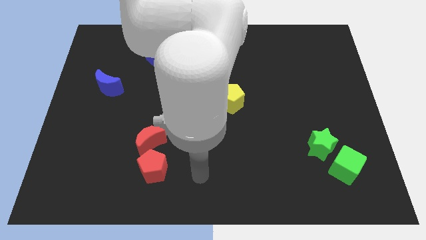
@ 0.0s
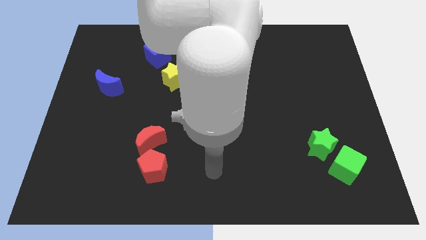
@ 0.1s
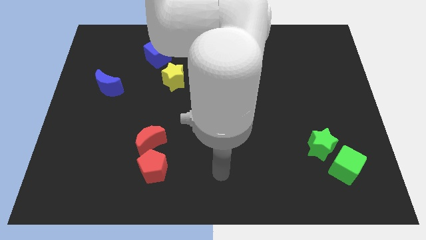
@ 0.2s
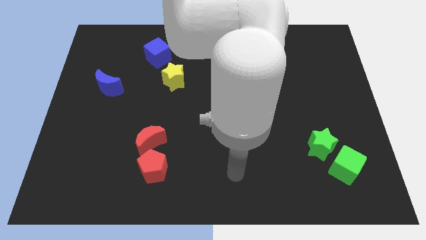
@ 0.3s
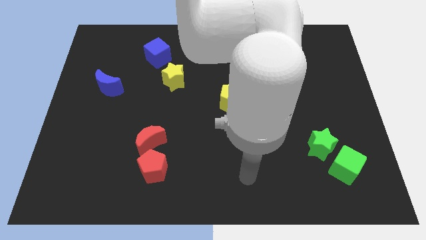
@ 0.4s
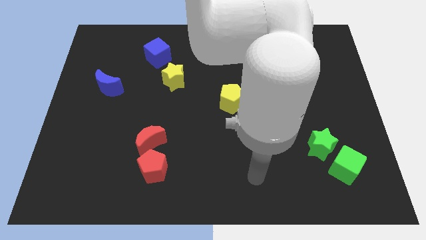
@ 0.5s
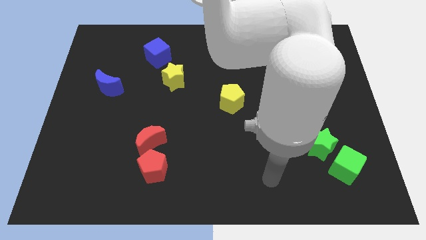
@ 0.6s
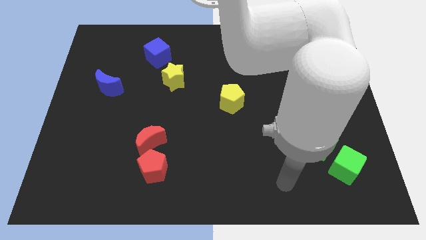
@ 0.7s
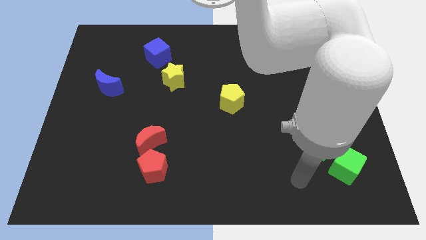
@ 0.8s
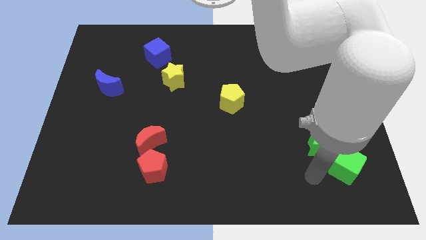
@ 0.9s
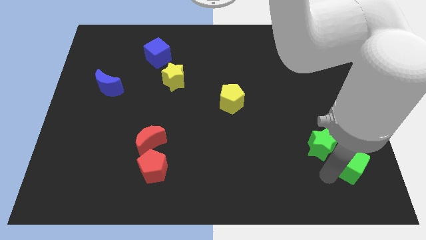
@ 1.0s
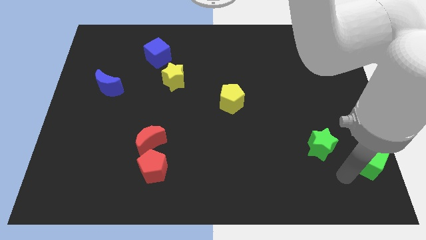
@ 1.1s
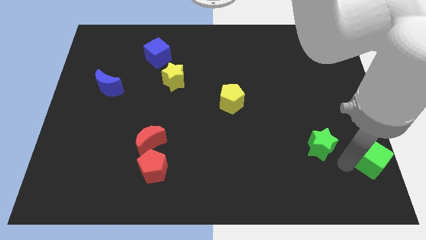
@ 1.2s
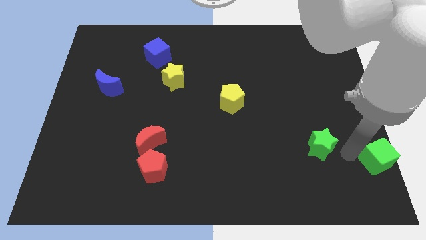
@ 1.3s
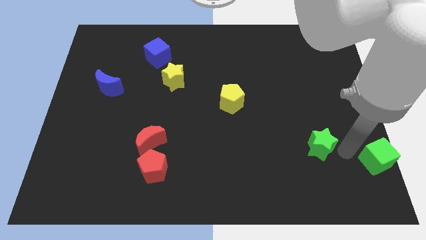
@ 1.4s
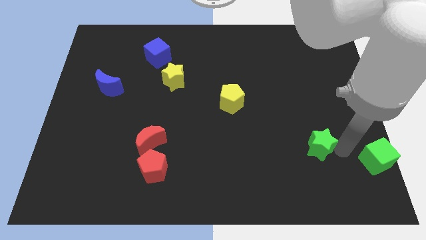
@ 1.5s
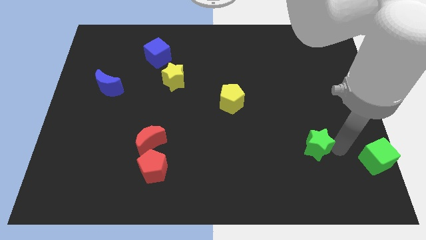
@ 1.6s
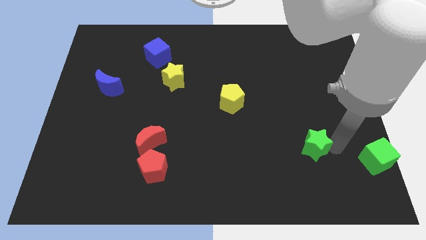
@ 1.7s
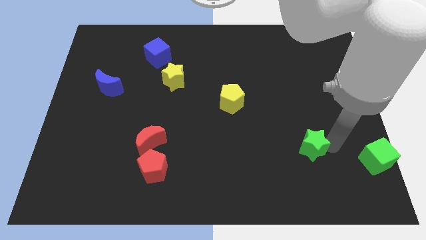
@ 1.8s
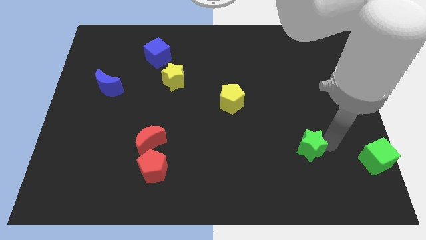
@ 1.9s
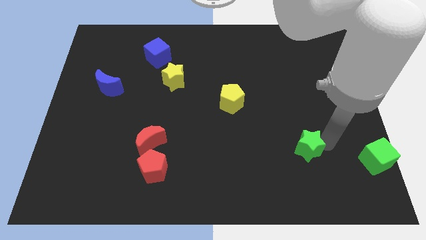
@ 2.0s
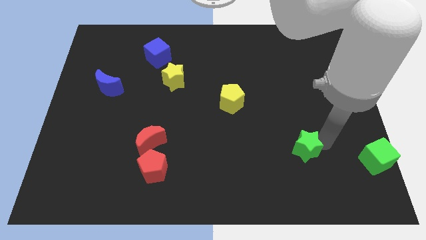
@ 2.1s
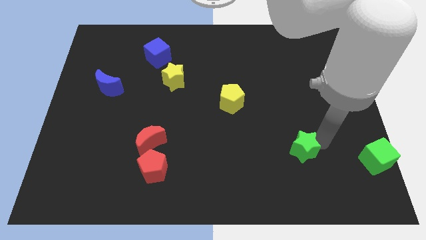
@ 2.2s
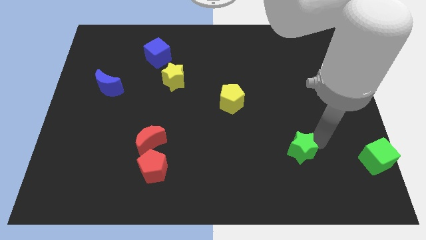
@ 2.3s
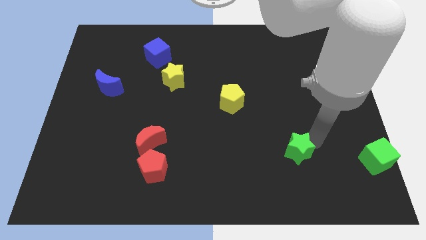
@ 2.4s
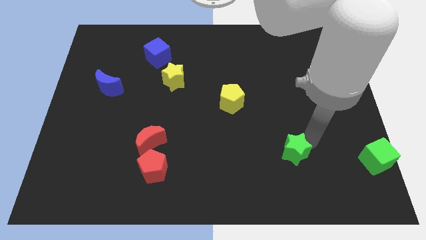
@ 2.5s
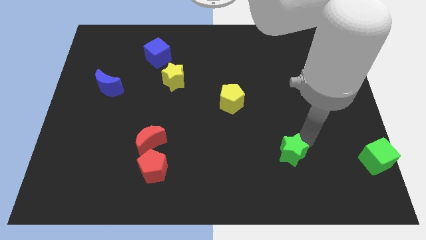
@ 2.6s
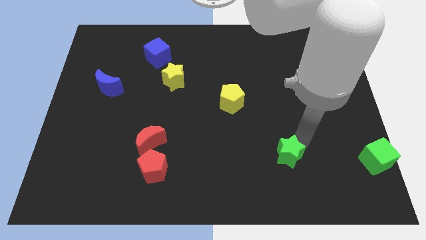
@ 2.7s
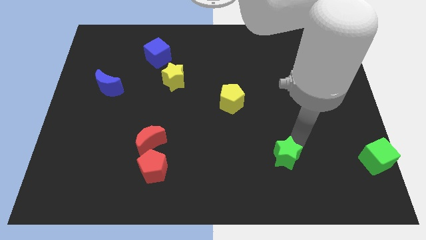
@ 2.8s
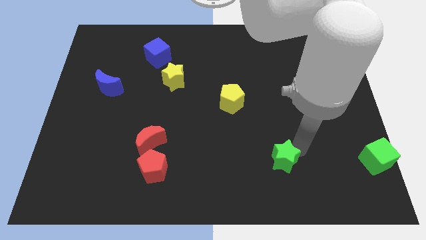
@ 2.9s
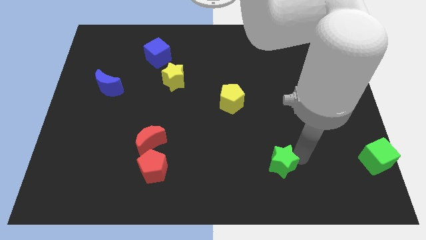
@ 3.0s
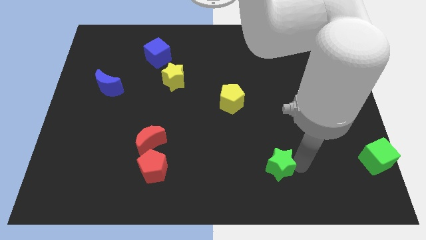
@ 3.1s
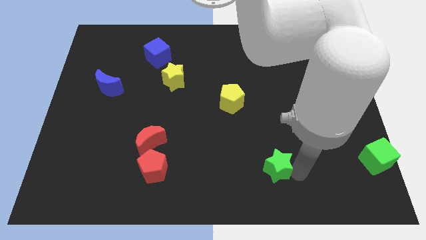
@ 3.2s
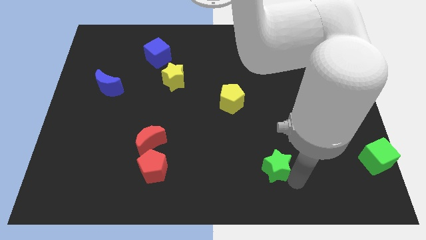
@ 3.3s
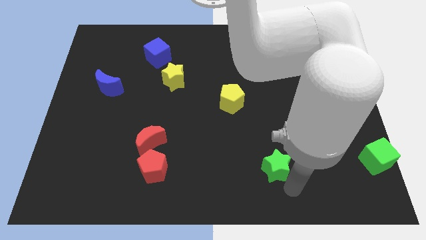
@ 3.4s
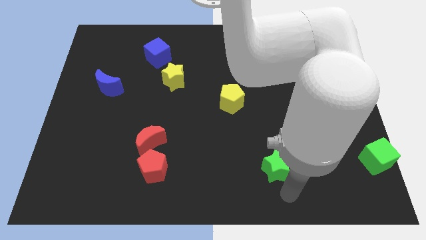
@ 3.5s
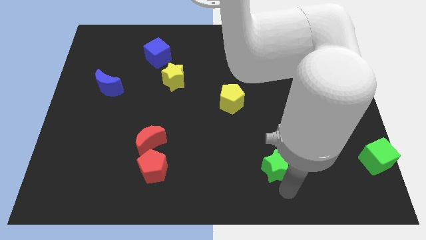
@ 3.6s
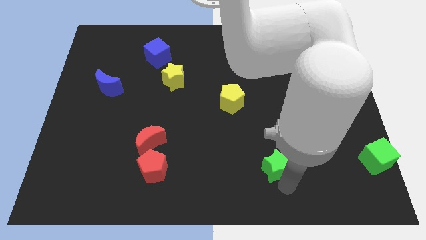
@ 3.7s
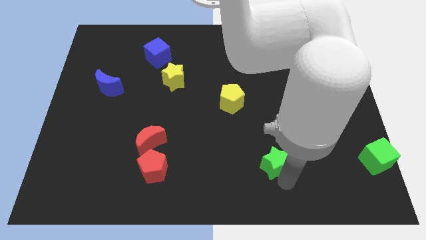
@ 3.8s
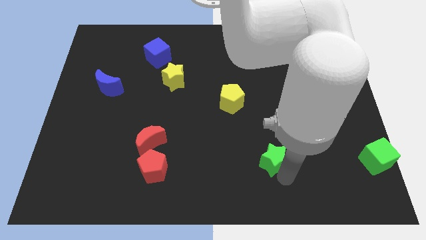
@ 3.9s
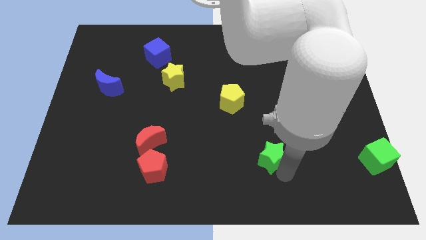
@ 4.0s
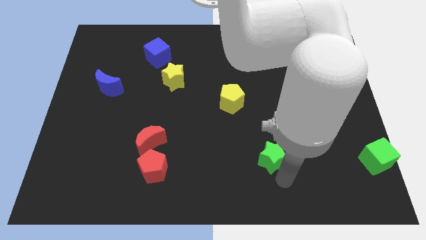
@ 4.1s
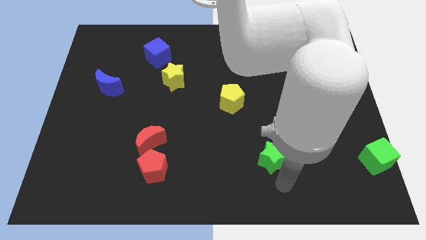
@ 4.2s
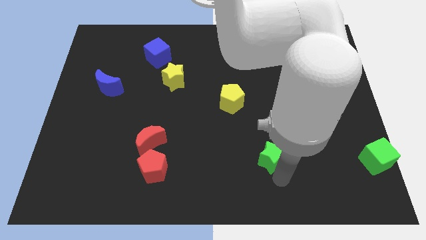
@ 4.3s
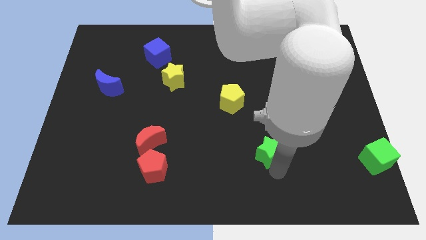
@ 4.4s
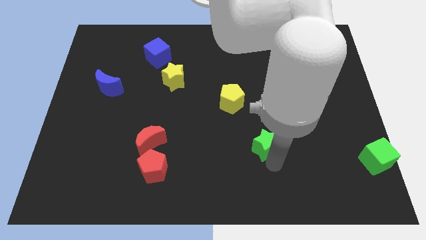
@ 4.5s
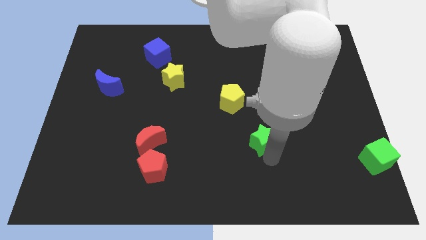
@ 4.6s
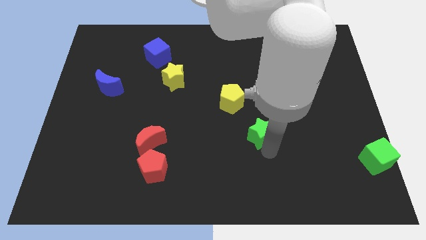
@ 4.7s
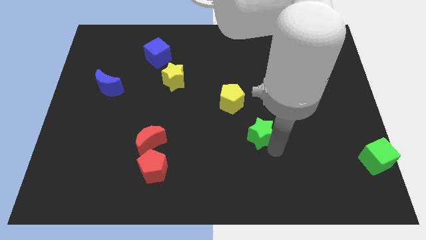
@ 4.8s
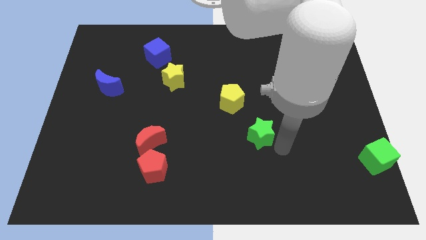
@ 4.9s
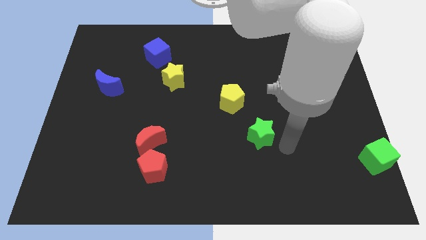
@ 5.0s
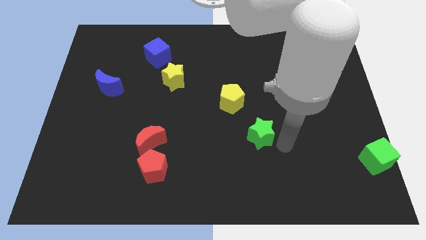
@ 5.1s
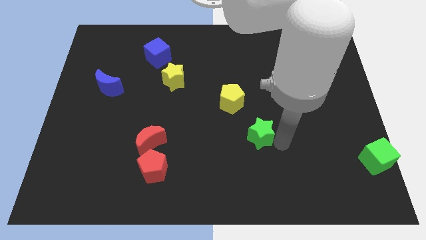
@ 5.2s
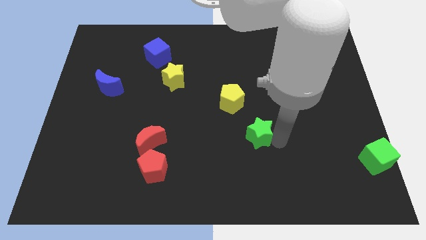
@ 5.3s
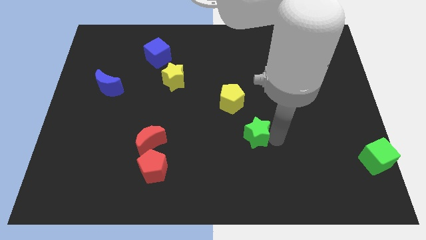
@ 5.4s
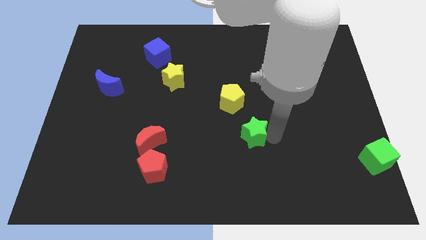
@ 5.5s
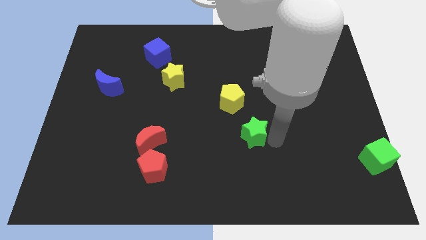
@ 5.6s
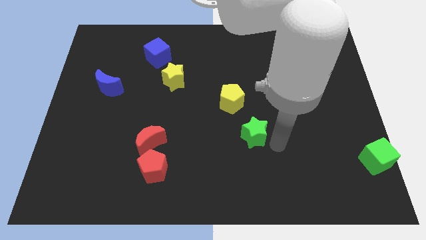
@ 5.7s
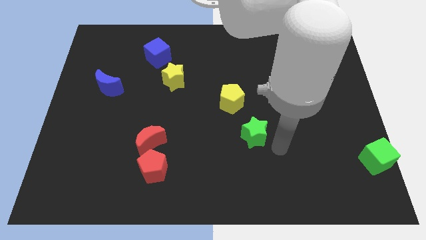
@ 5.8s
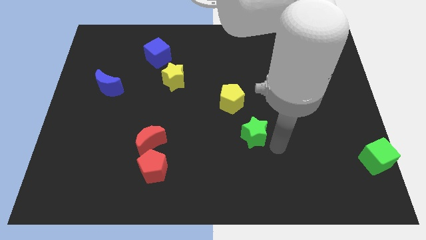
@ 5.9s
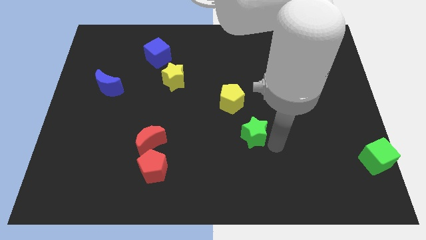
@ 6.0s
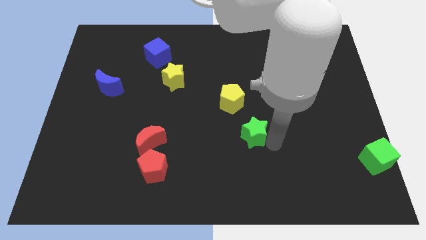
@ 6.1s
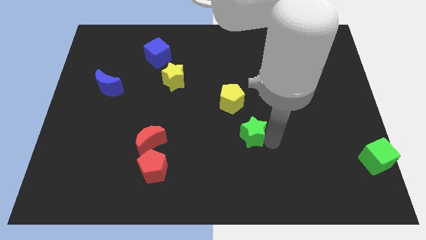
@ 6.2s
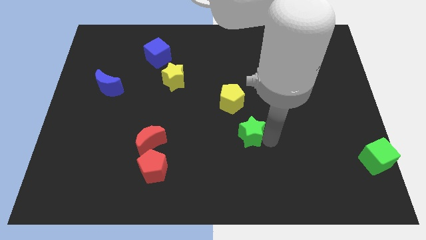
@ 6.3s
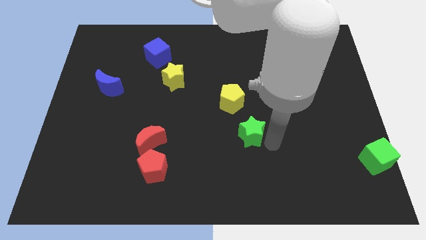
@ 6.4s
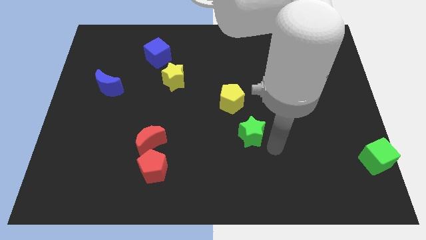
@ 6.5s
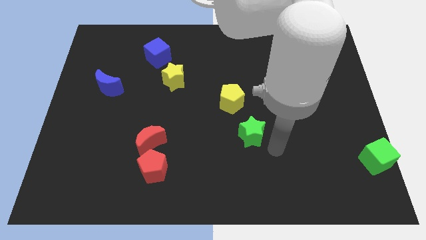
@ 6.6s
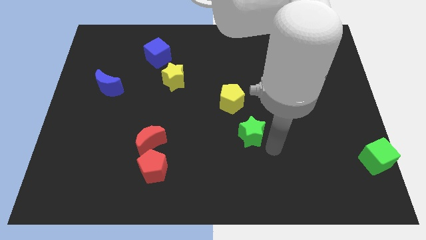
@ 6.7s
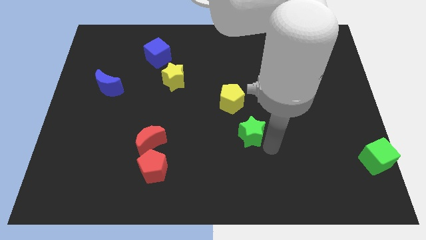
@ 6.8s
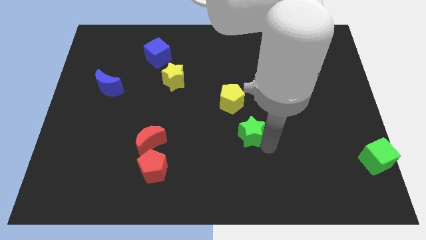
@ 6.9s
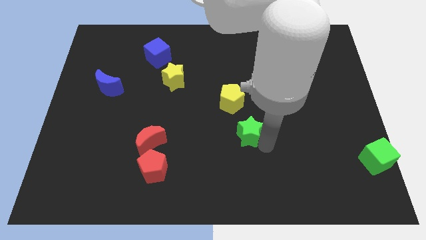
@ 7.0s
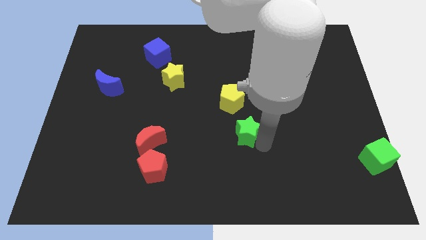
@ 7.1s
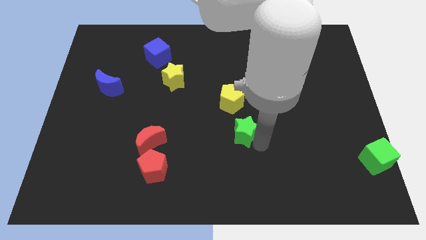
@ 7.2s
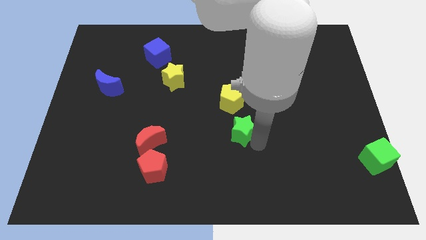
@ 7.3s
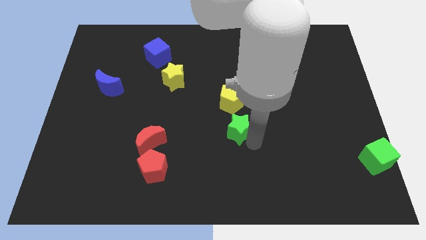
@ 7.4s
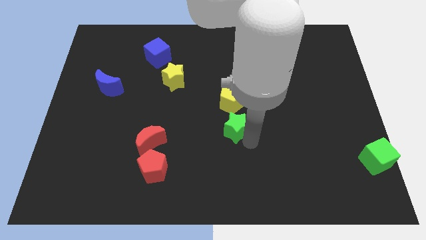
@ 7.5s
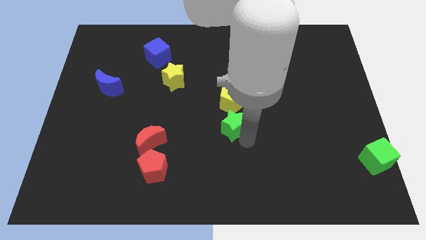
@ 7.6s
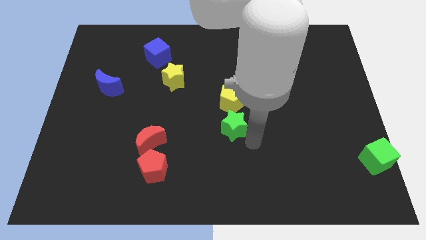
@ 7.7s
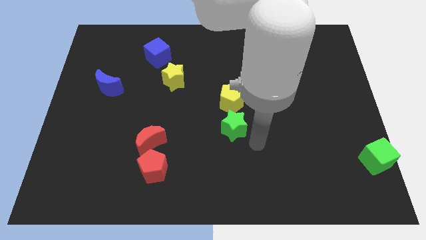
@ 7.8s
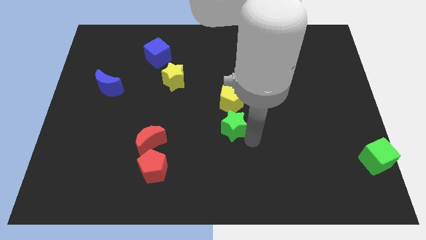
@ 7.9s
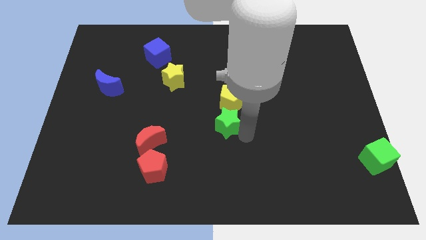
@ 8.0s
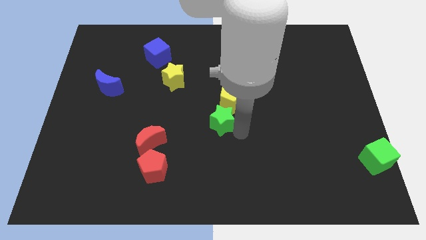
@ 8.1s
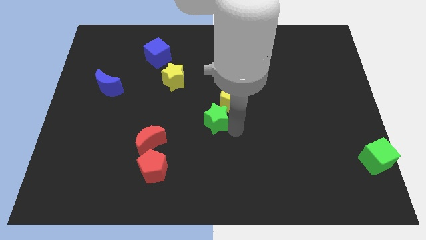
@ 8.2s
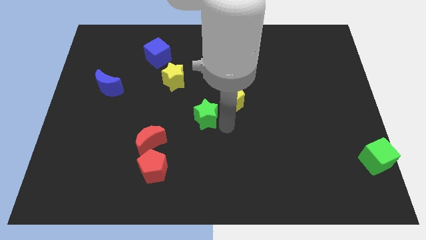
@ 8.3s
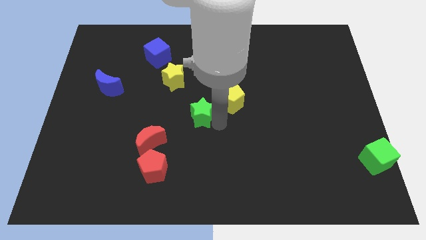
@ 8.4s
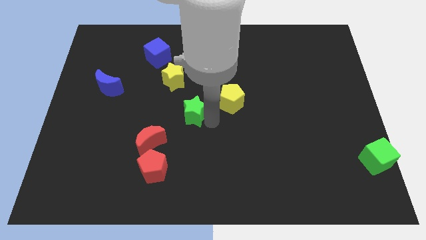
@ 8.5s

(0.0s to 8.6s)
push the green star diagonally down and to the right of the yellow star
